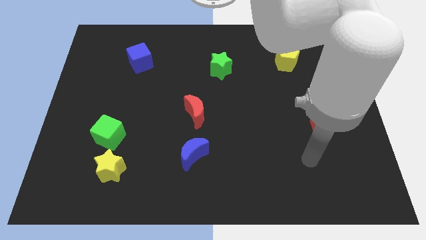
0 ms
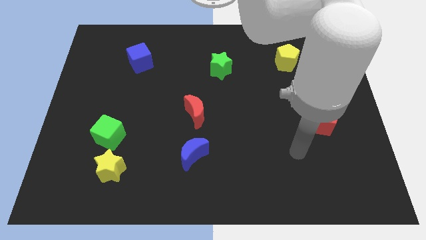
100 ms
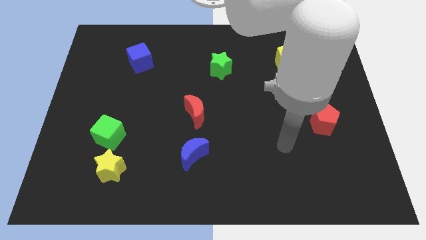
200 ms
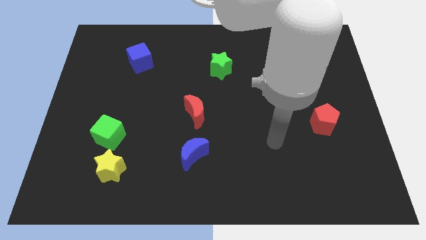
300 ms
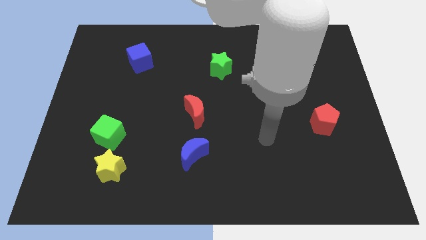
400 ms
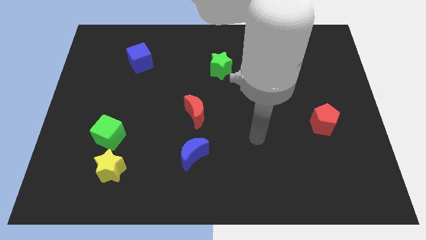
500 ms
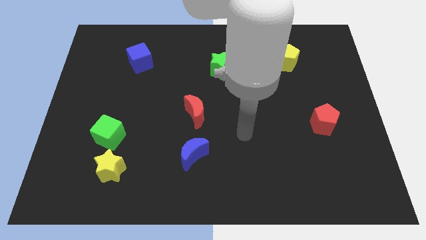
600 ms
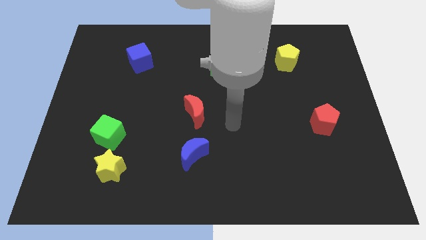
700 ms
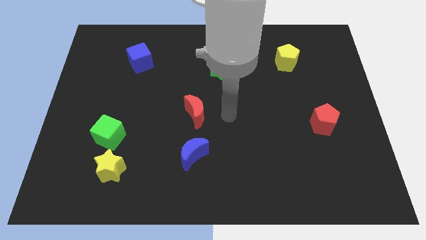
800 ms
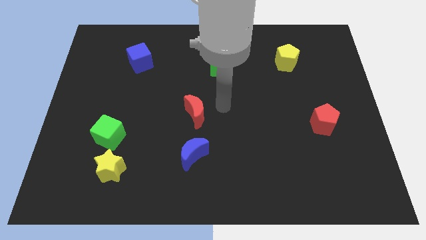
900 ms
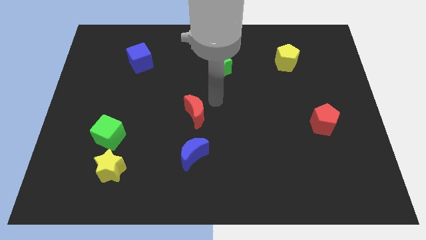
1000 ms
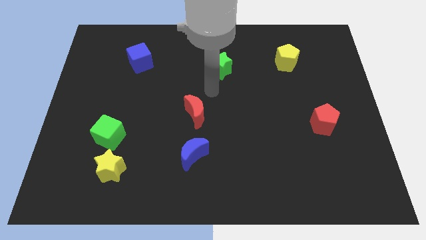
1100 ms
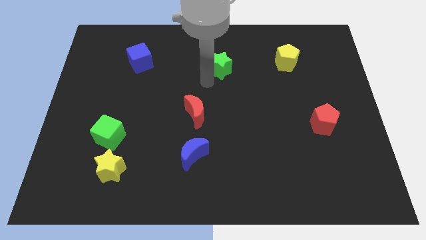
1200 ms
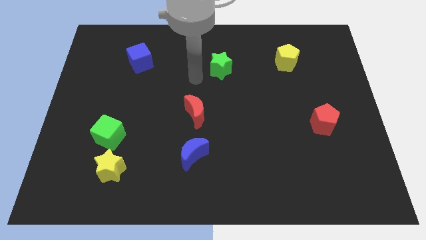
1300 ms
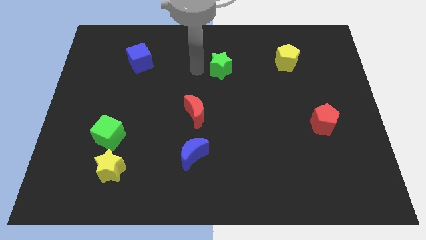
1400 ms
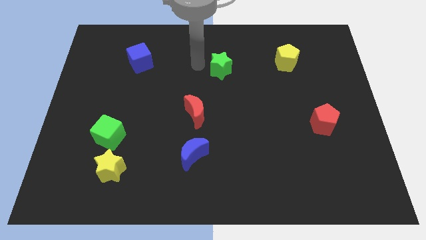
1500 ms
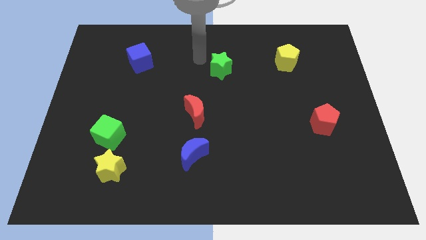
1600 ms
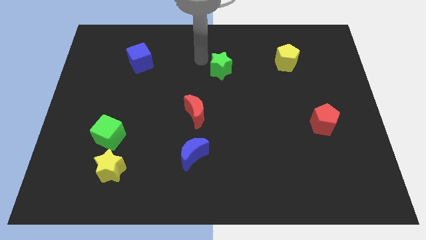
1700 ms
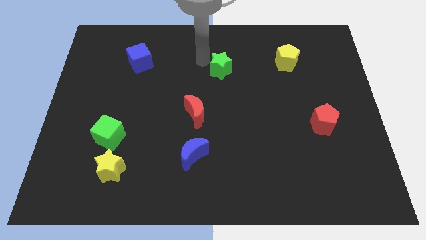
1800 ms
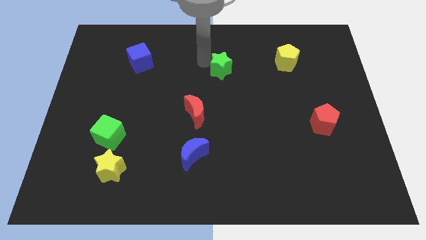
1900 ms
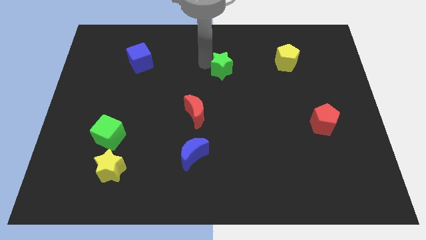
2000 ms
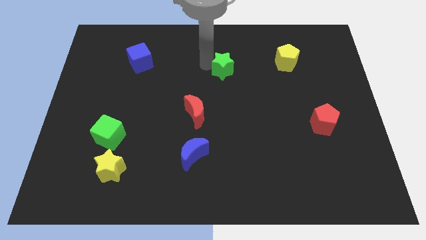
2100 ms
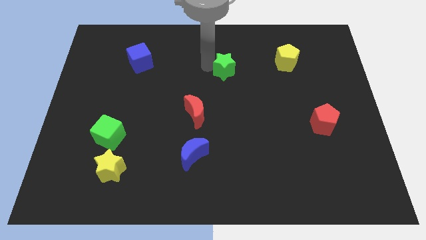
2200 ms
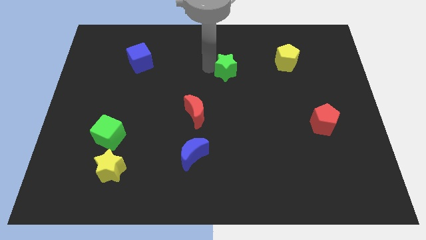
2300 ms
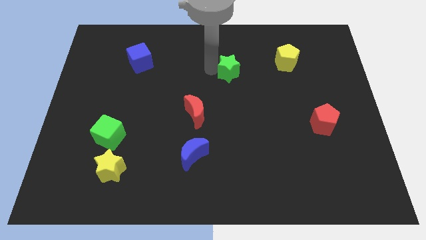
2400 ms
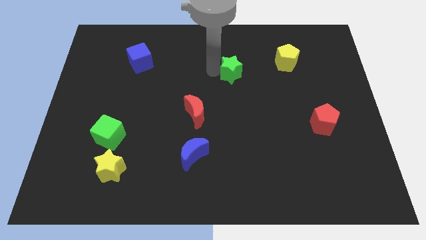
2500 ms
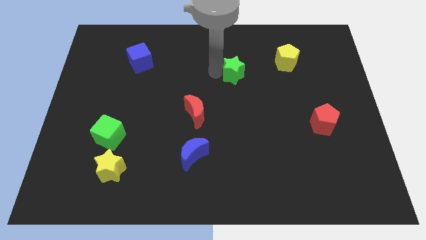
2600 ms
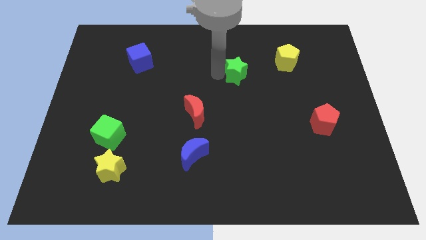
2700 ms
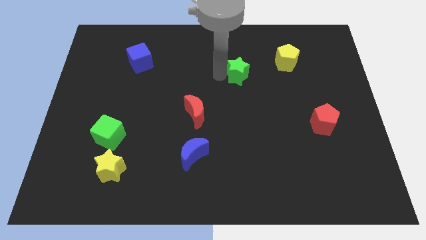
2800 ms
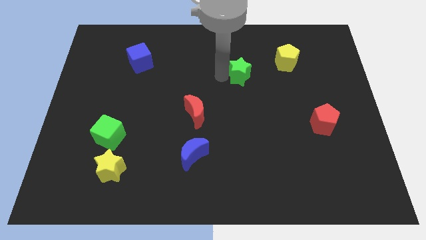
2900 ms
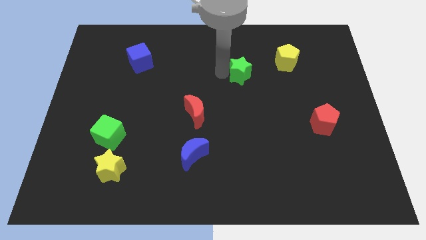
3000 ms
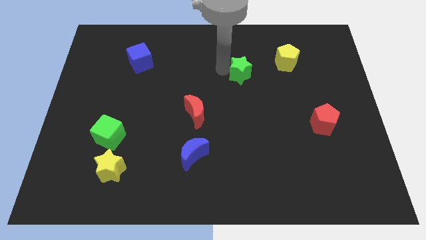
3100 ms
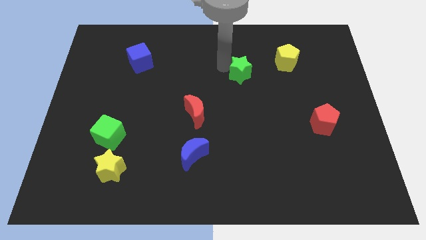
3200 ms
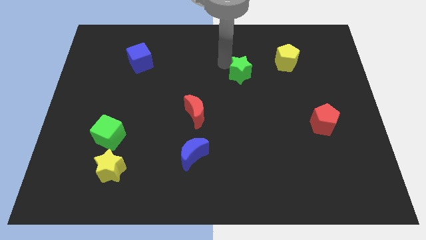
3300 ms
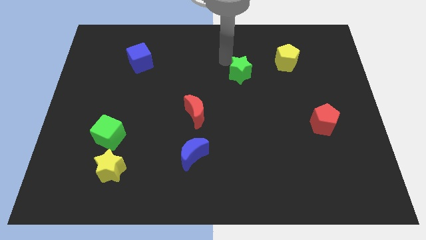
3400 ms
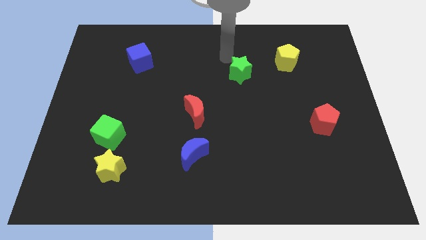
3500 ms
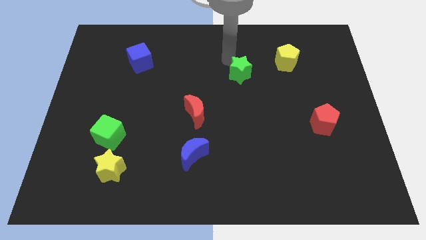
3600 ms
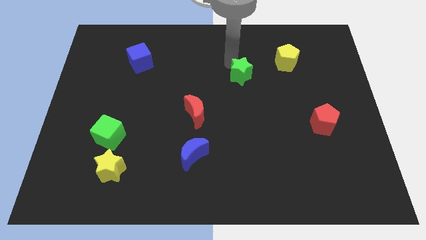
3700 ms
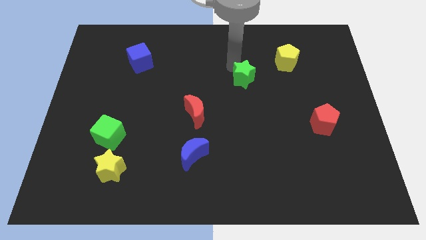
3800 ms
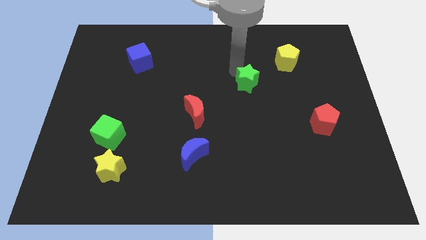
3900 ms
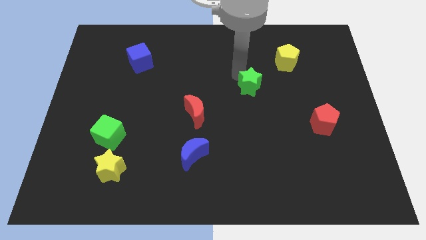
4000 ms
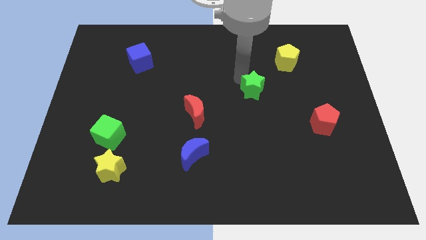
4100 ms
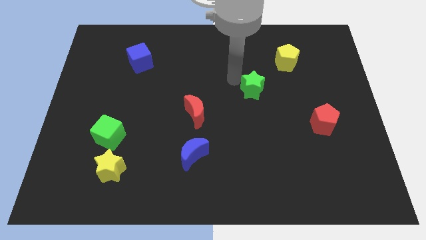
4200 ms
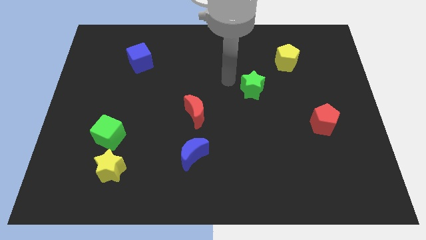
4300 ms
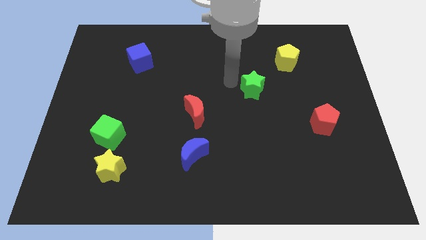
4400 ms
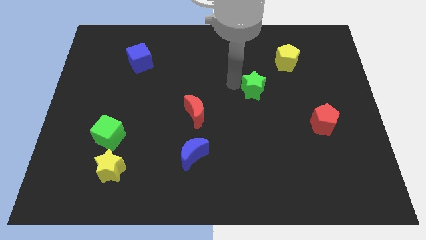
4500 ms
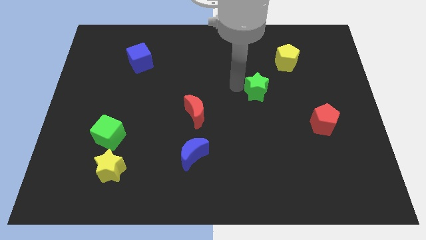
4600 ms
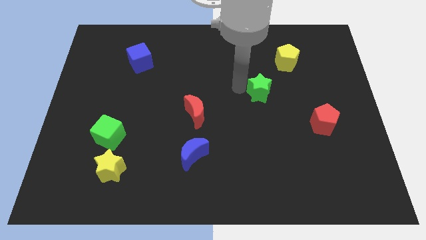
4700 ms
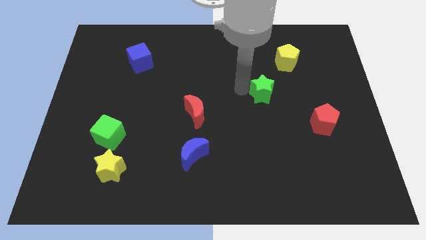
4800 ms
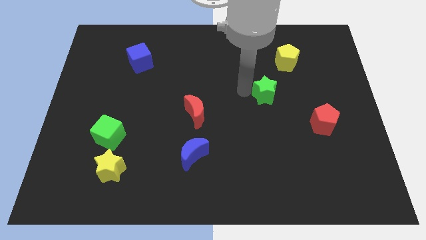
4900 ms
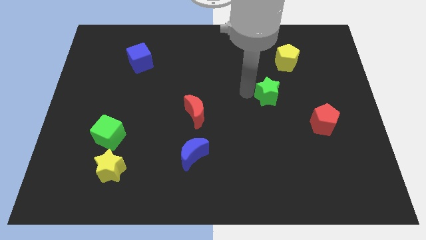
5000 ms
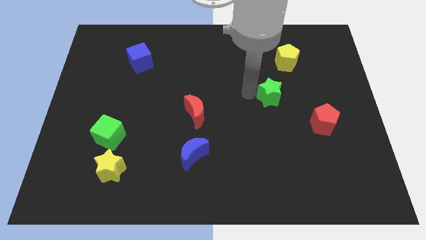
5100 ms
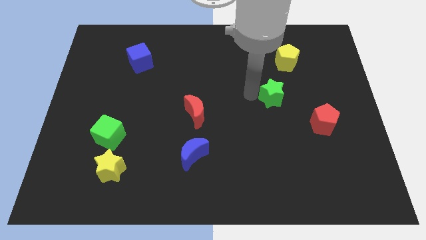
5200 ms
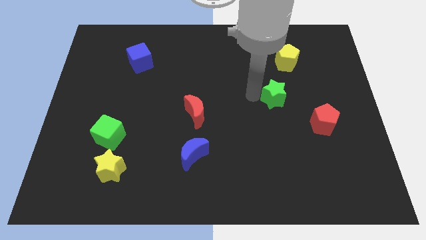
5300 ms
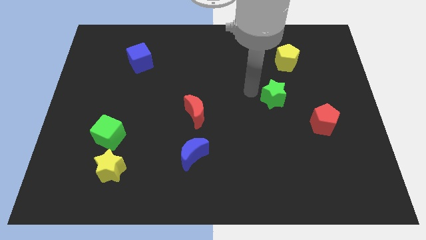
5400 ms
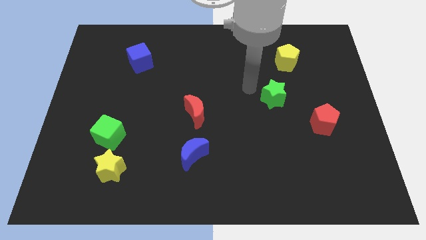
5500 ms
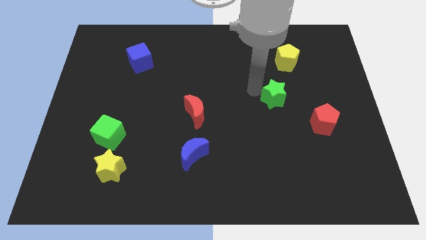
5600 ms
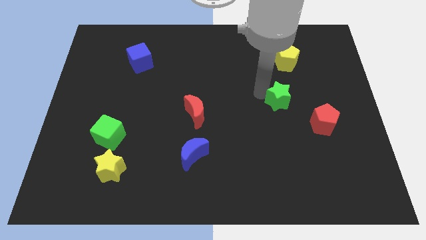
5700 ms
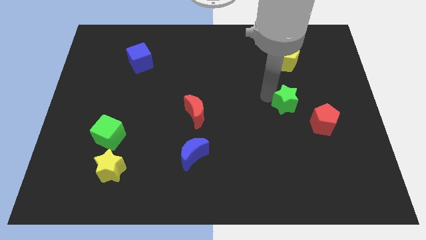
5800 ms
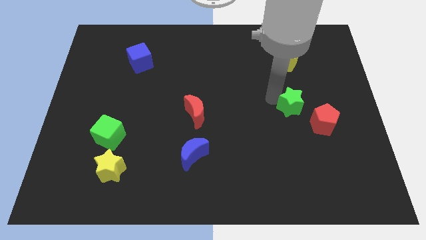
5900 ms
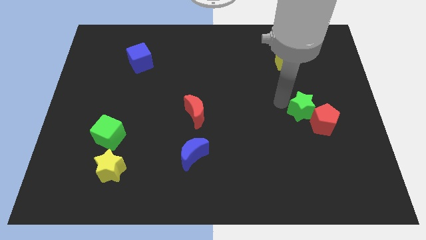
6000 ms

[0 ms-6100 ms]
put the green star to the red pentagon

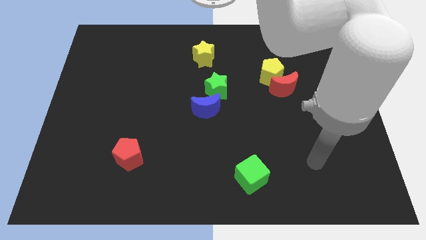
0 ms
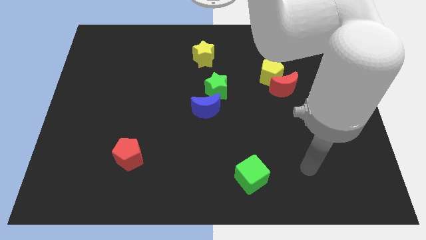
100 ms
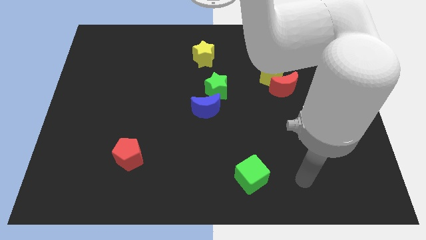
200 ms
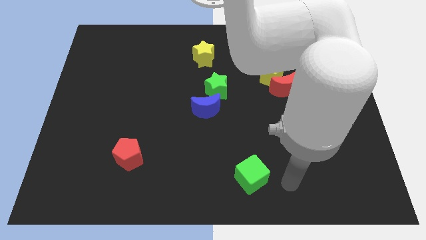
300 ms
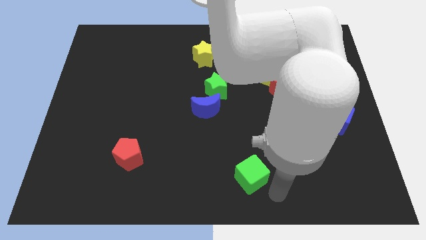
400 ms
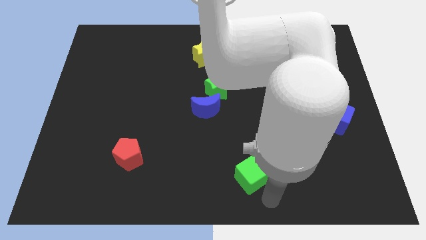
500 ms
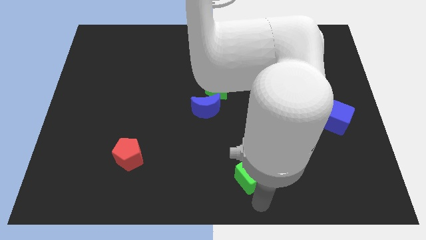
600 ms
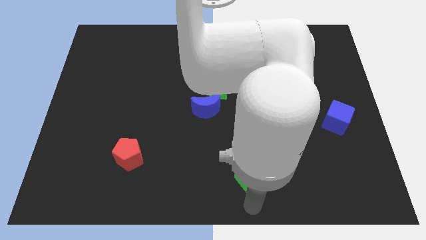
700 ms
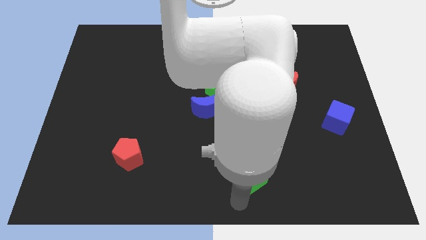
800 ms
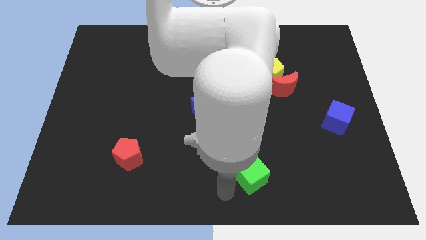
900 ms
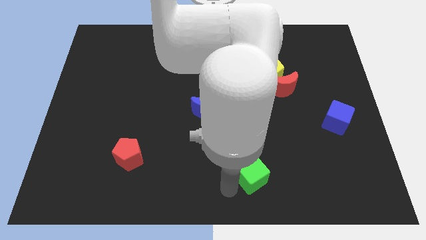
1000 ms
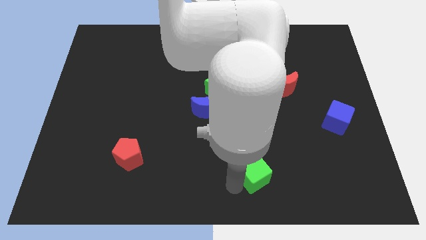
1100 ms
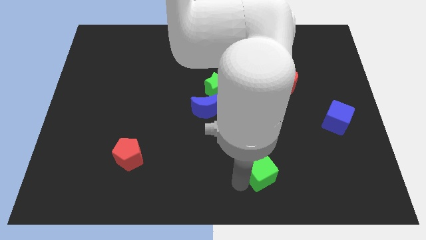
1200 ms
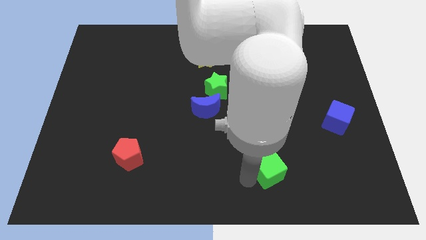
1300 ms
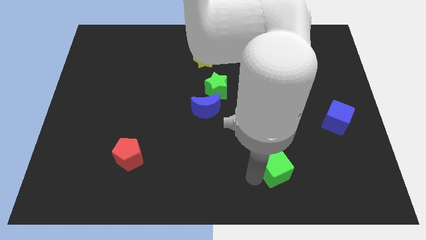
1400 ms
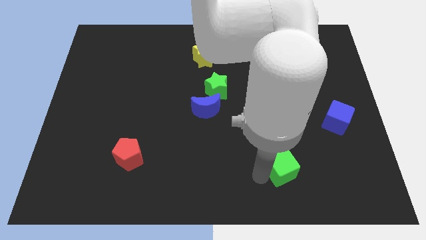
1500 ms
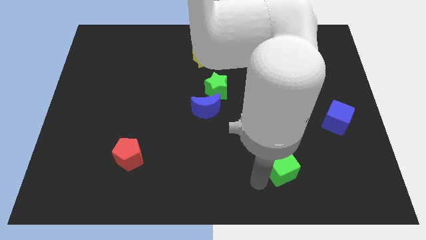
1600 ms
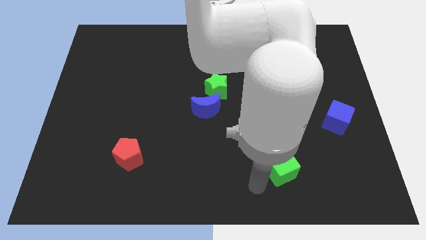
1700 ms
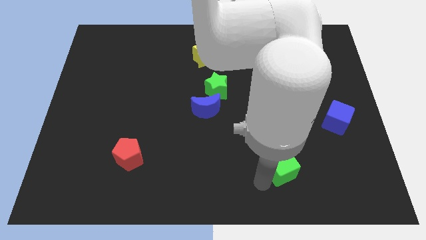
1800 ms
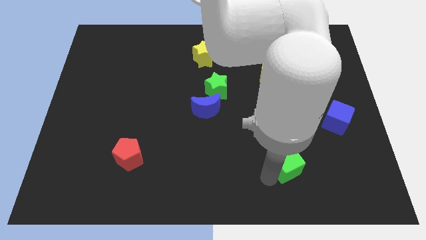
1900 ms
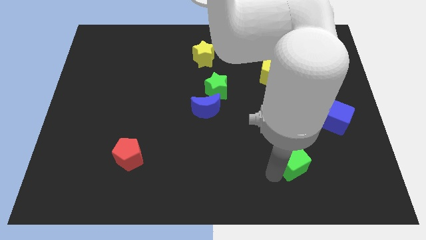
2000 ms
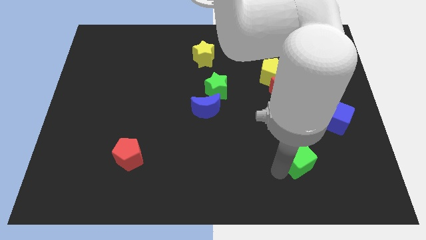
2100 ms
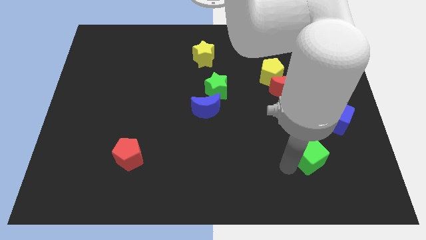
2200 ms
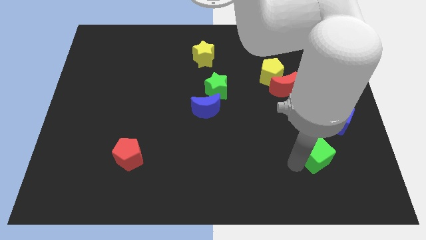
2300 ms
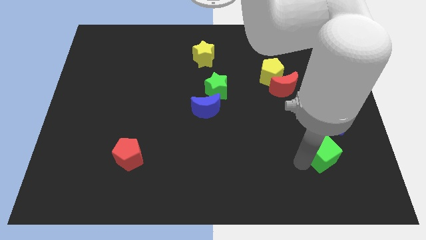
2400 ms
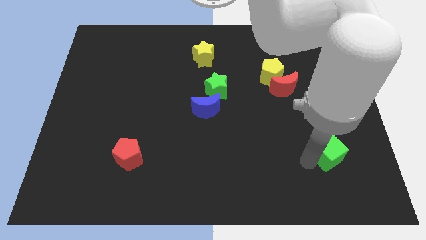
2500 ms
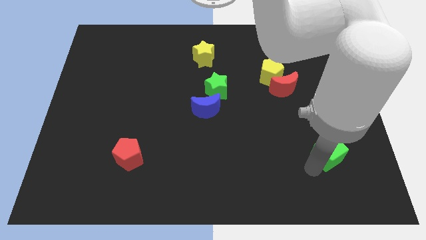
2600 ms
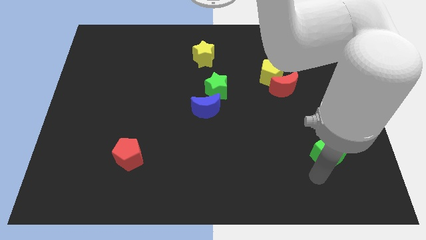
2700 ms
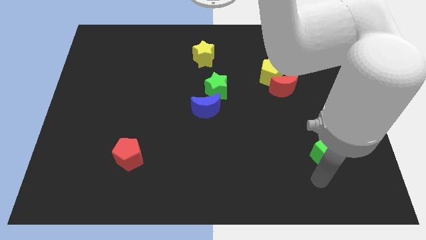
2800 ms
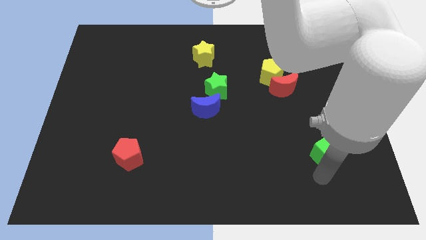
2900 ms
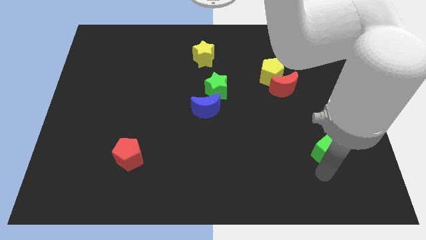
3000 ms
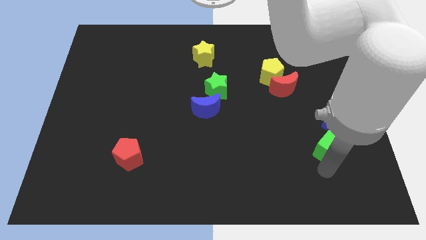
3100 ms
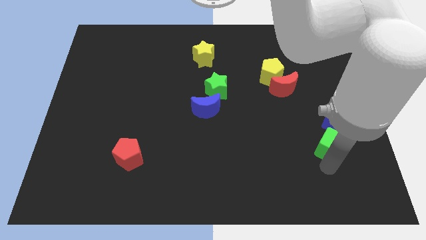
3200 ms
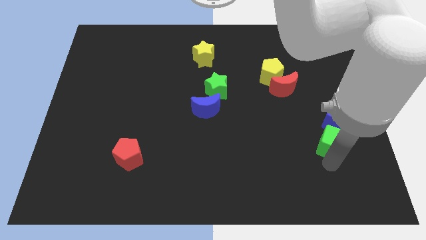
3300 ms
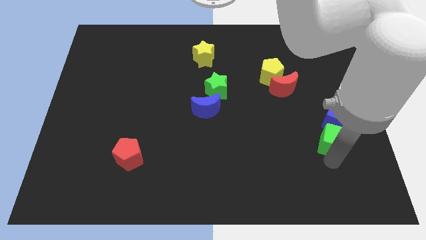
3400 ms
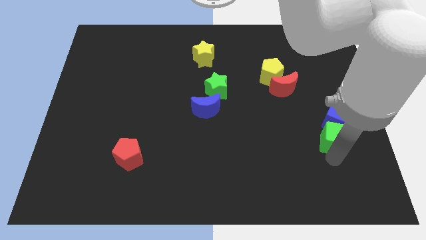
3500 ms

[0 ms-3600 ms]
push the green cube towards the blue cube
